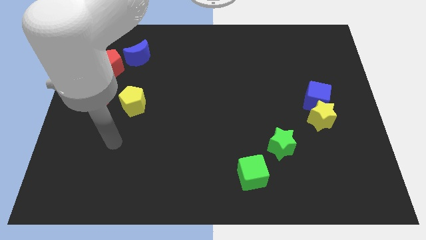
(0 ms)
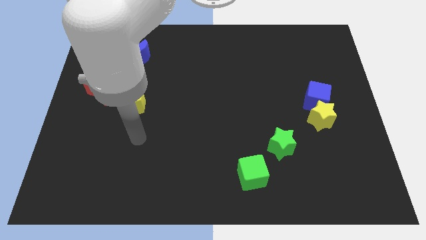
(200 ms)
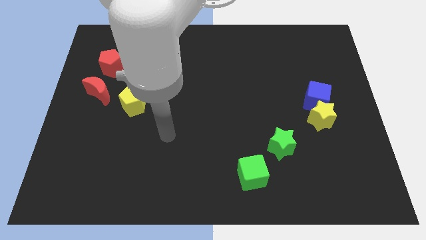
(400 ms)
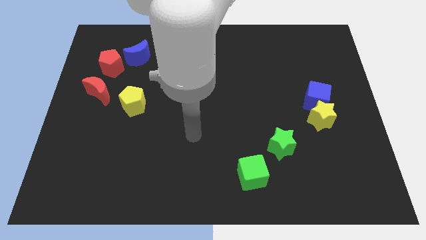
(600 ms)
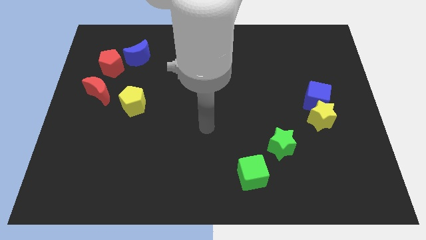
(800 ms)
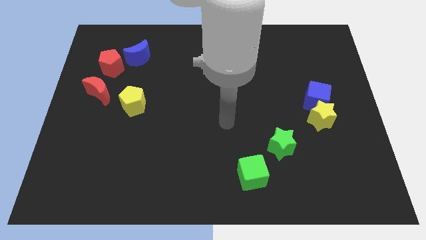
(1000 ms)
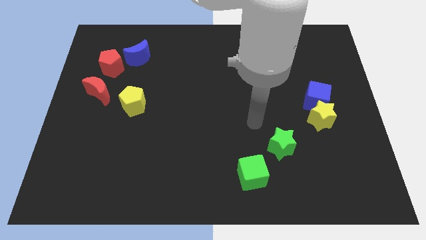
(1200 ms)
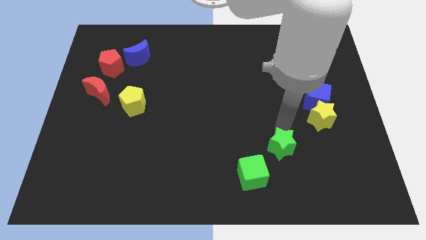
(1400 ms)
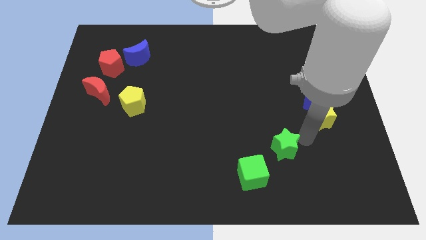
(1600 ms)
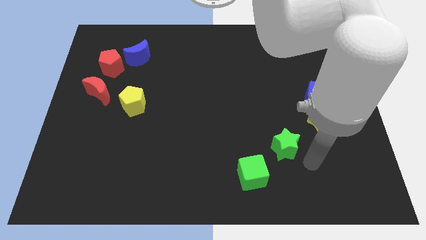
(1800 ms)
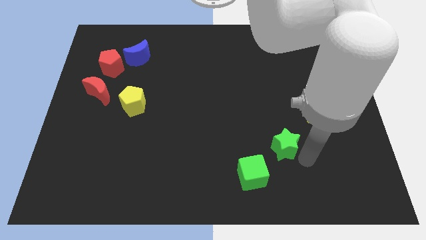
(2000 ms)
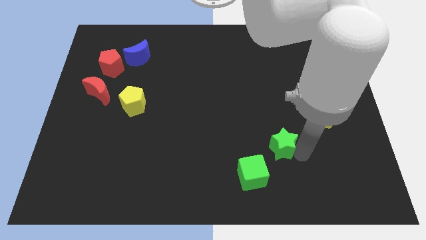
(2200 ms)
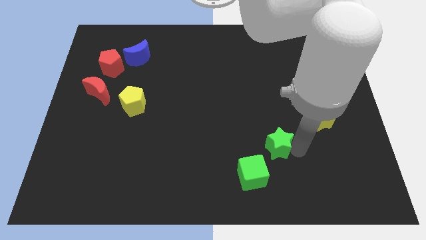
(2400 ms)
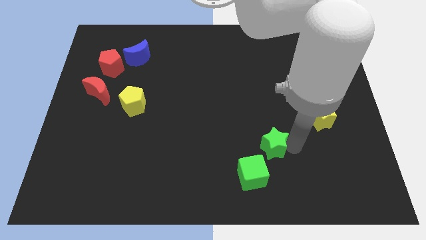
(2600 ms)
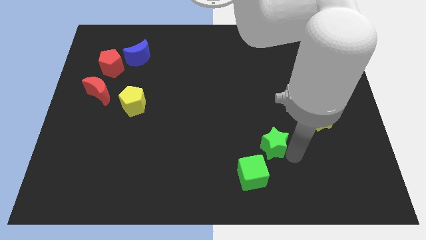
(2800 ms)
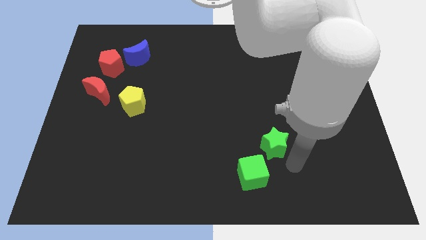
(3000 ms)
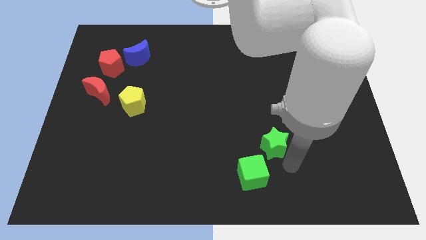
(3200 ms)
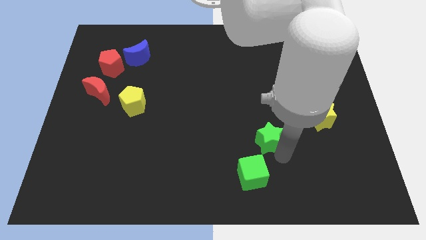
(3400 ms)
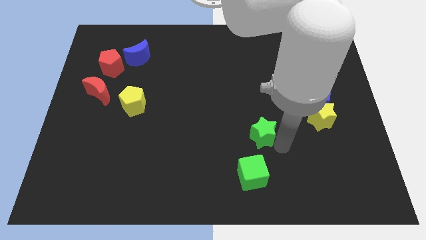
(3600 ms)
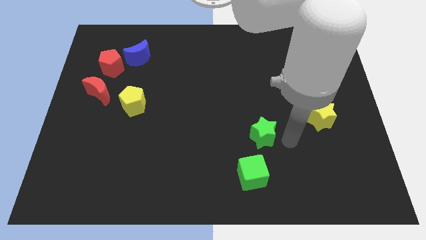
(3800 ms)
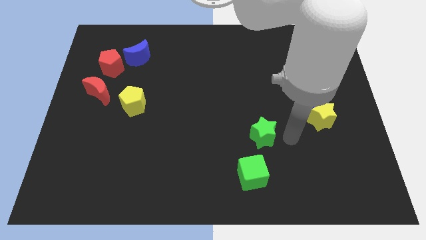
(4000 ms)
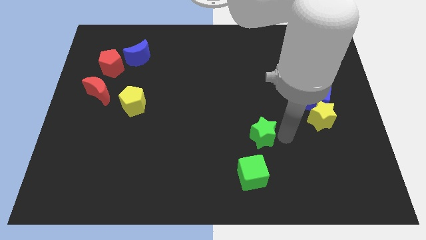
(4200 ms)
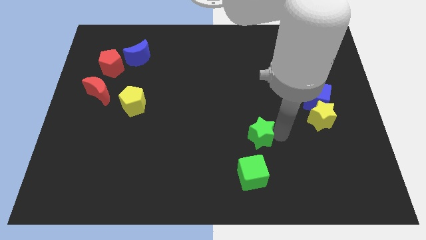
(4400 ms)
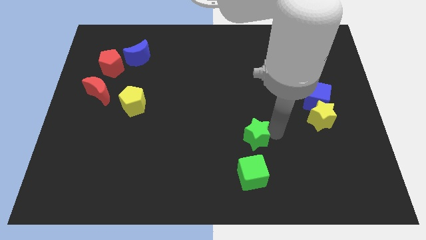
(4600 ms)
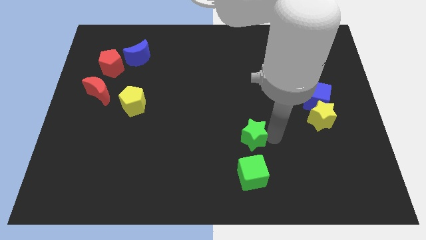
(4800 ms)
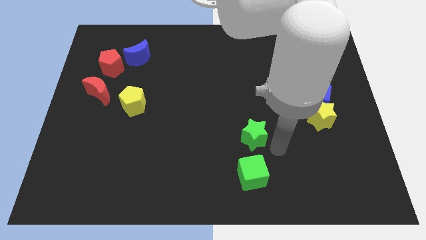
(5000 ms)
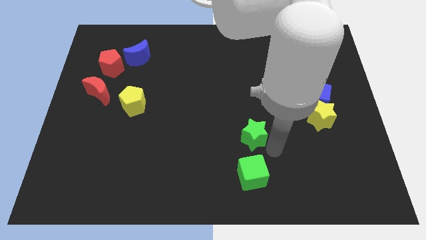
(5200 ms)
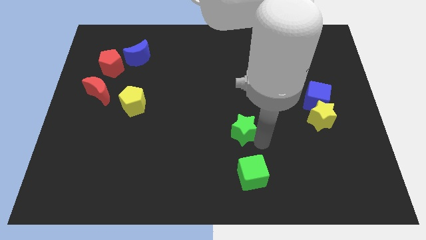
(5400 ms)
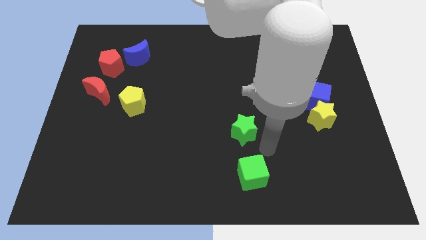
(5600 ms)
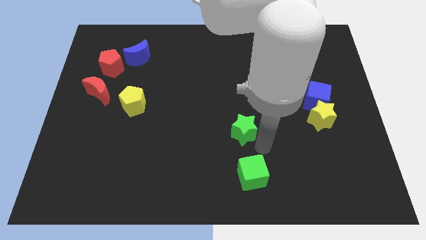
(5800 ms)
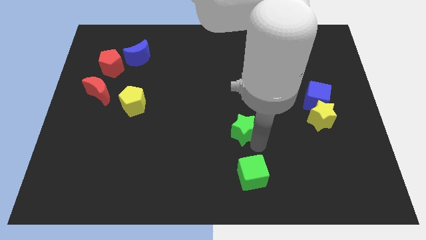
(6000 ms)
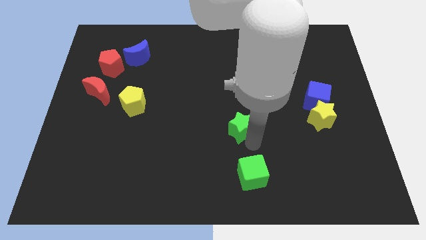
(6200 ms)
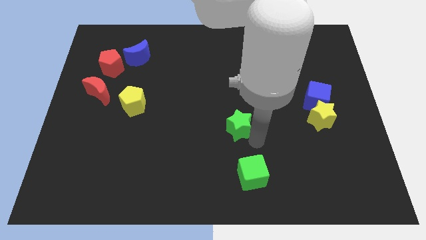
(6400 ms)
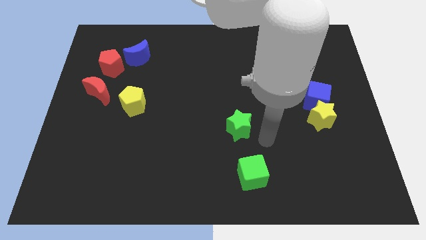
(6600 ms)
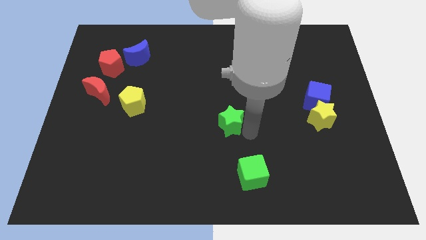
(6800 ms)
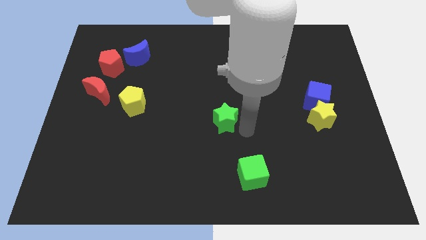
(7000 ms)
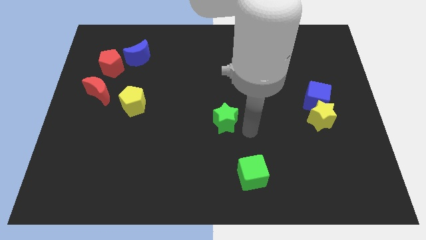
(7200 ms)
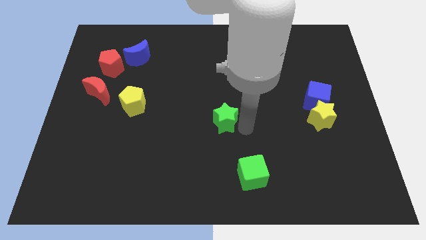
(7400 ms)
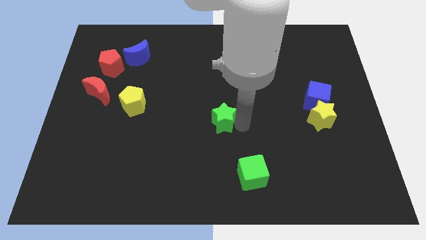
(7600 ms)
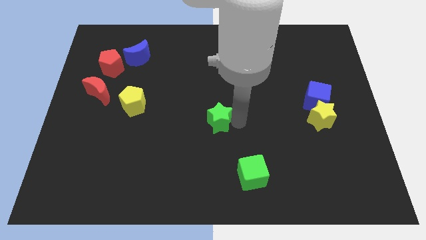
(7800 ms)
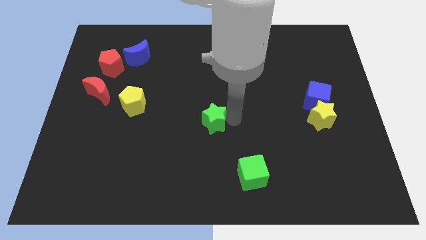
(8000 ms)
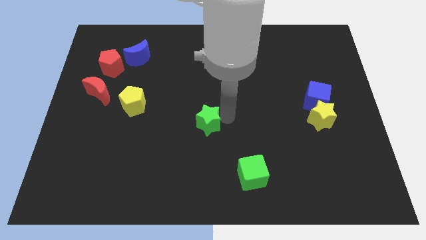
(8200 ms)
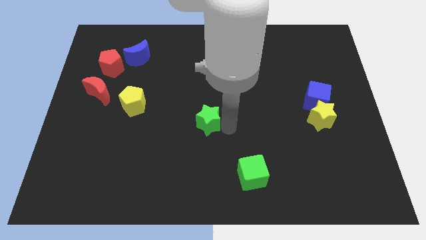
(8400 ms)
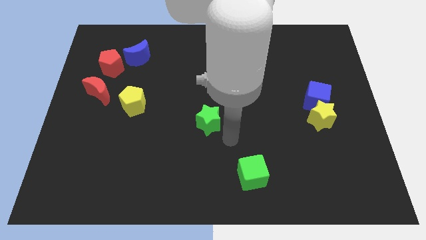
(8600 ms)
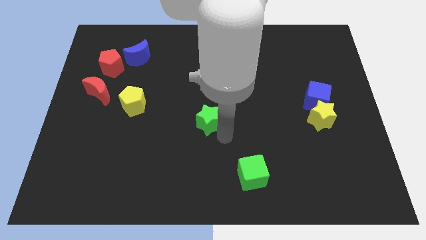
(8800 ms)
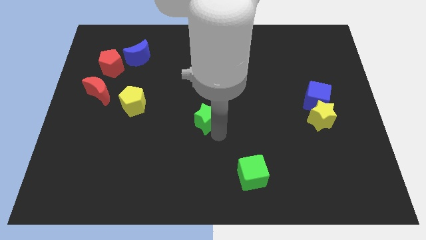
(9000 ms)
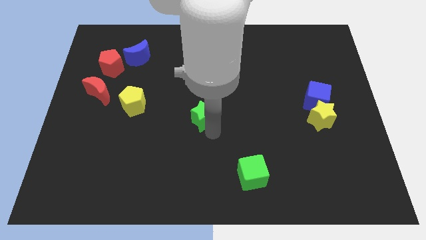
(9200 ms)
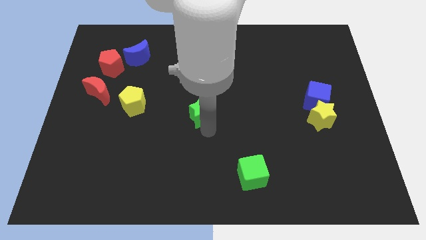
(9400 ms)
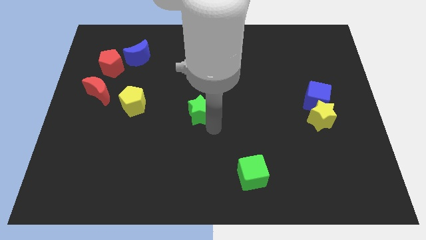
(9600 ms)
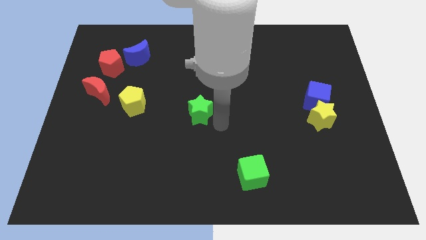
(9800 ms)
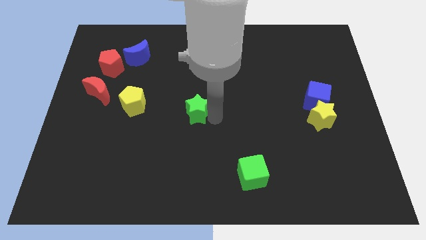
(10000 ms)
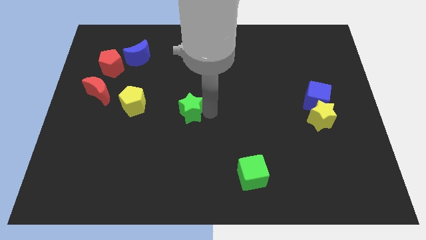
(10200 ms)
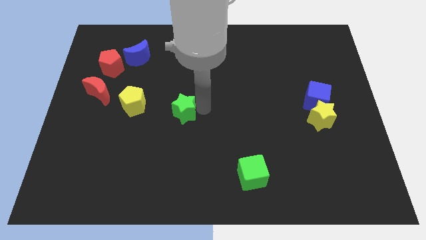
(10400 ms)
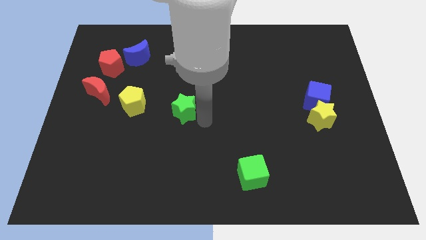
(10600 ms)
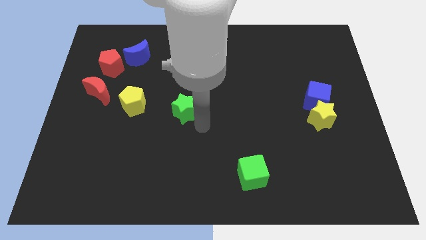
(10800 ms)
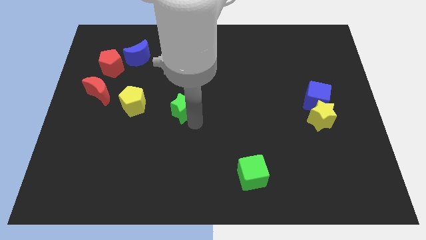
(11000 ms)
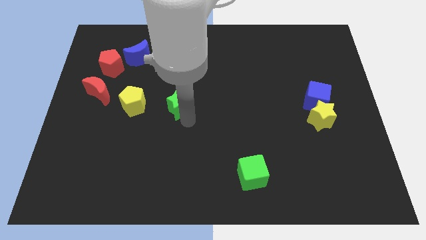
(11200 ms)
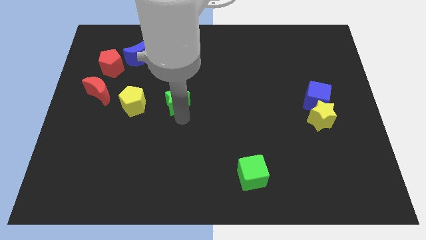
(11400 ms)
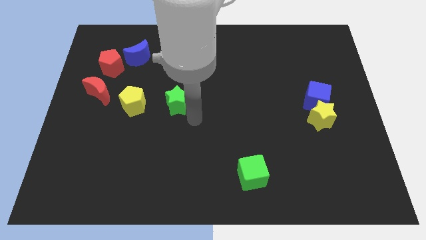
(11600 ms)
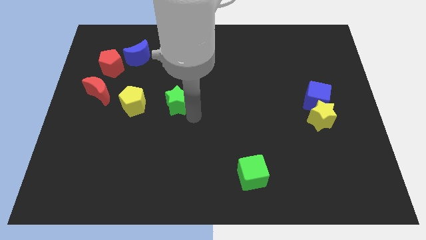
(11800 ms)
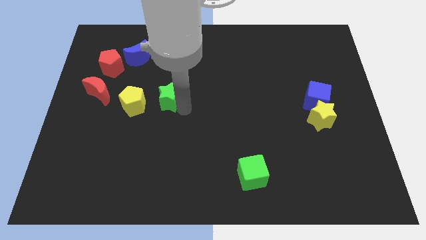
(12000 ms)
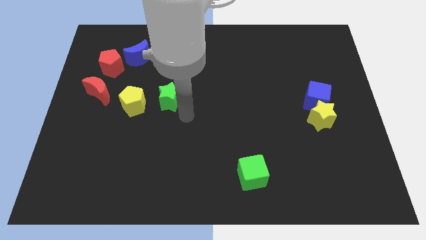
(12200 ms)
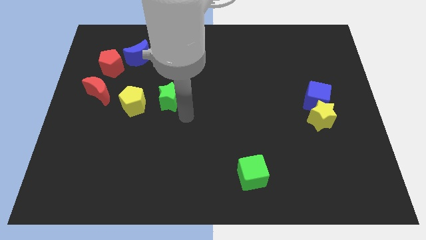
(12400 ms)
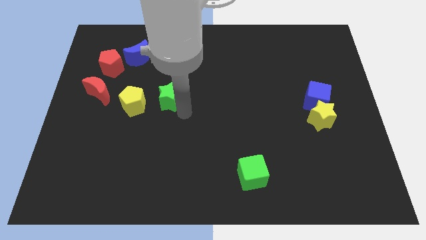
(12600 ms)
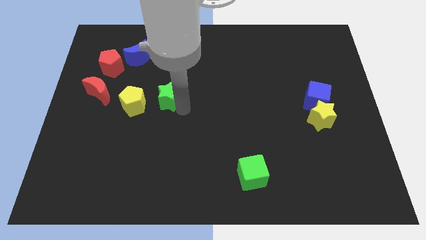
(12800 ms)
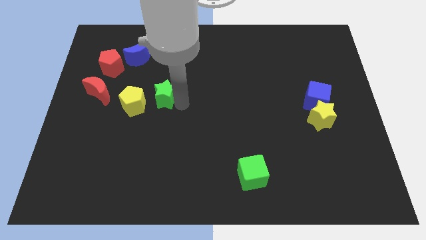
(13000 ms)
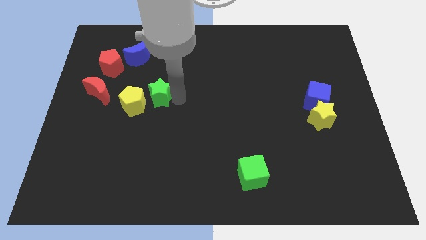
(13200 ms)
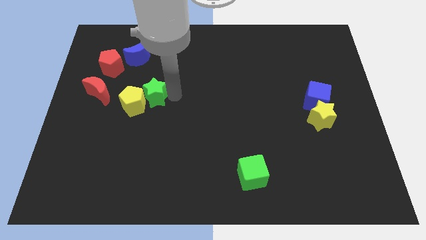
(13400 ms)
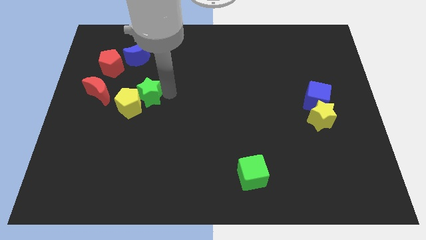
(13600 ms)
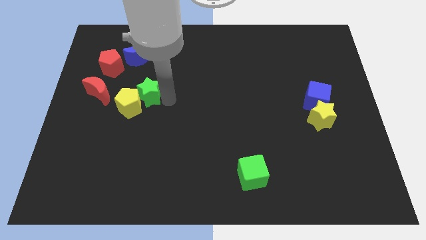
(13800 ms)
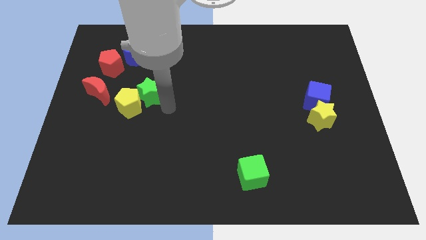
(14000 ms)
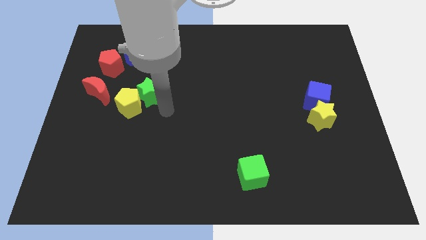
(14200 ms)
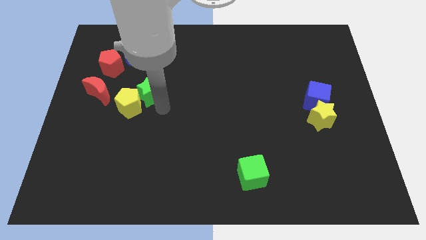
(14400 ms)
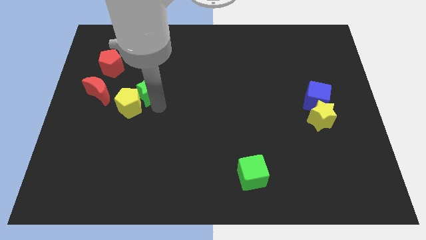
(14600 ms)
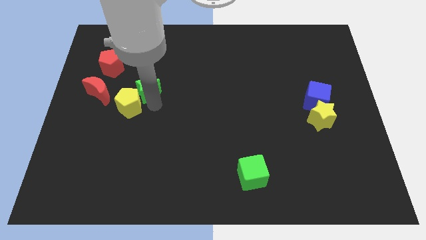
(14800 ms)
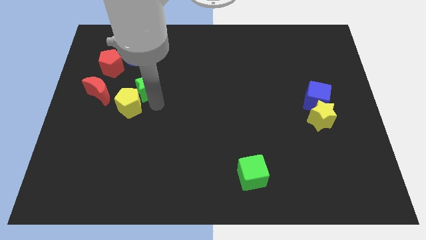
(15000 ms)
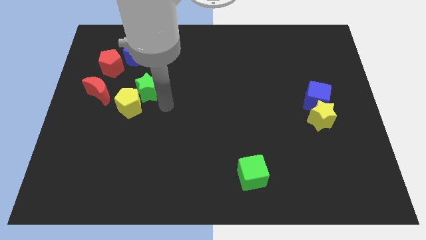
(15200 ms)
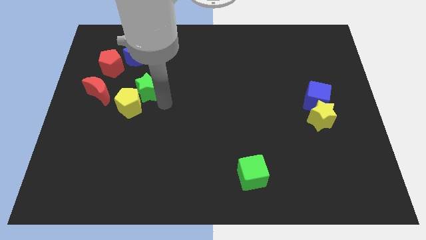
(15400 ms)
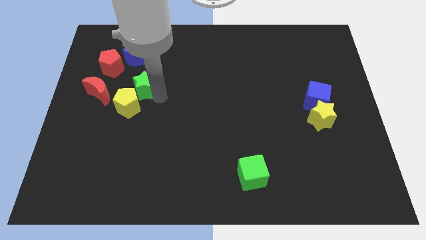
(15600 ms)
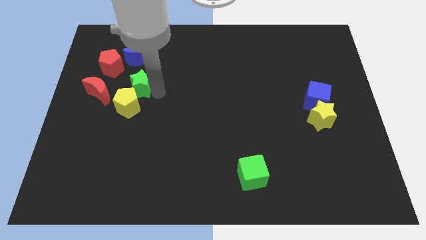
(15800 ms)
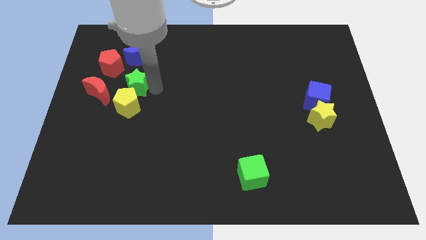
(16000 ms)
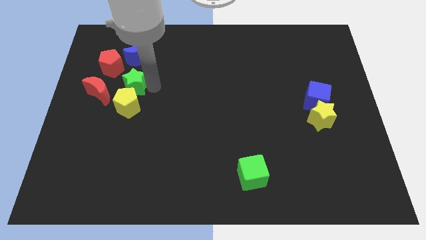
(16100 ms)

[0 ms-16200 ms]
move the green star to the top right side of the red moon
